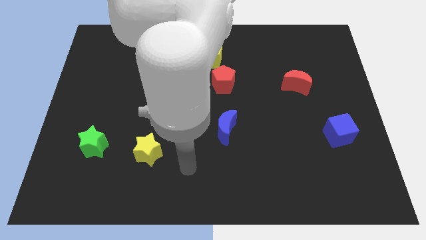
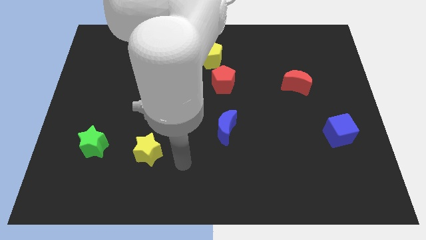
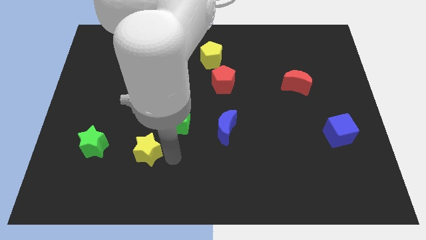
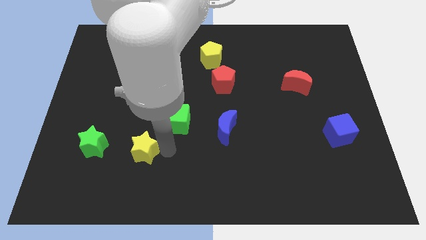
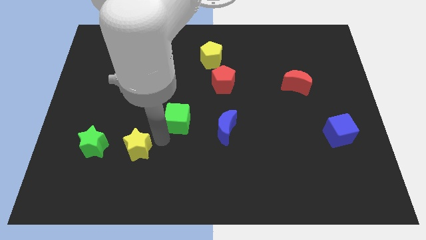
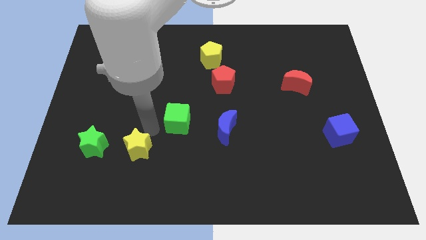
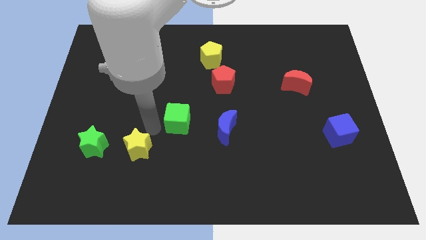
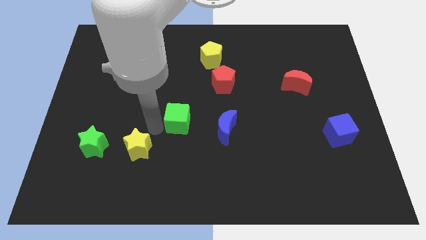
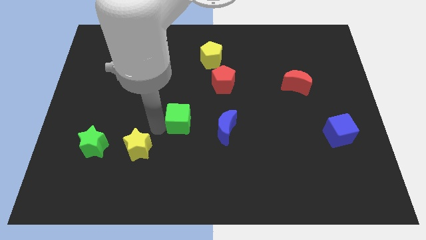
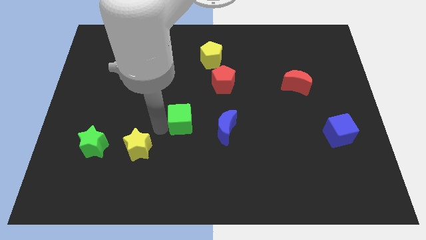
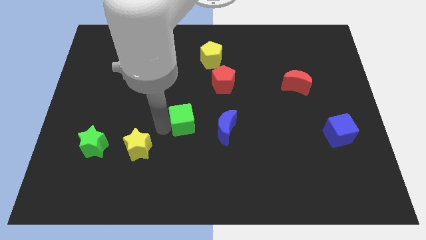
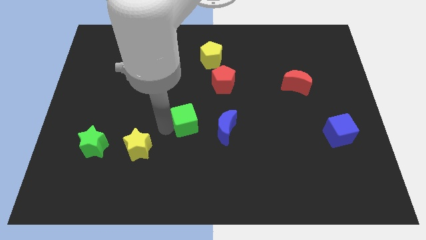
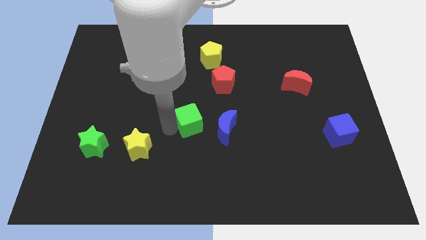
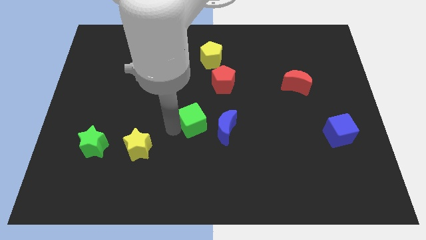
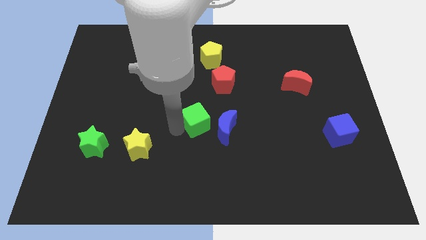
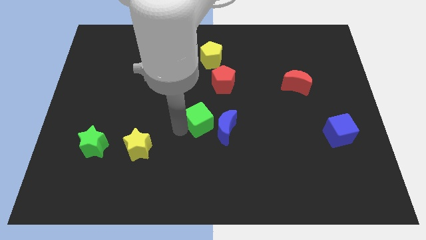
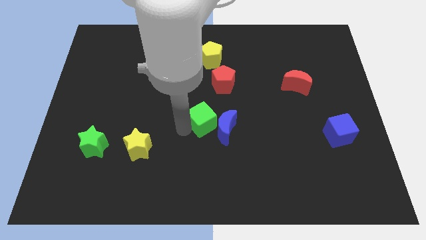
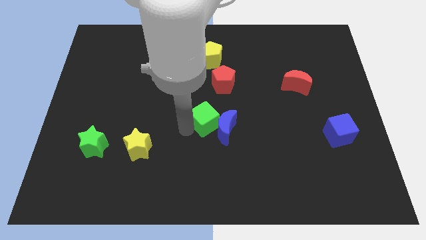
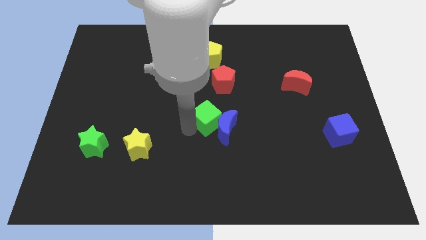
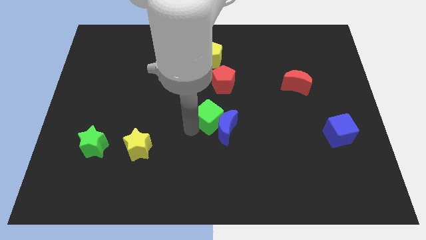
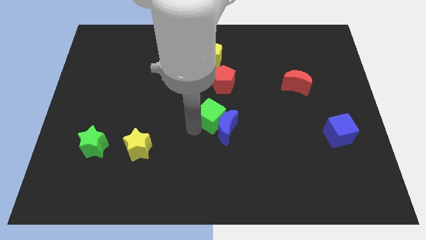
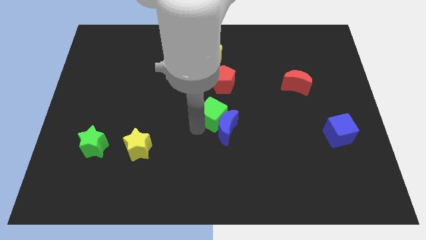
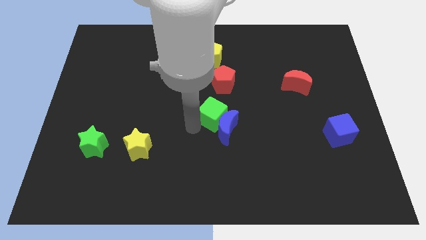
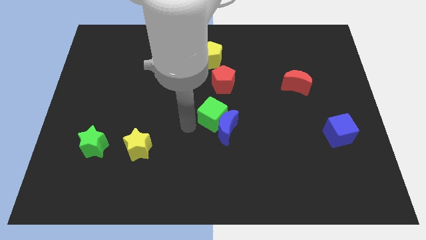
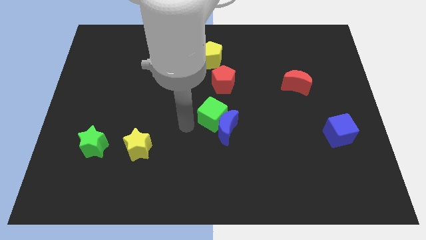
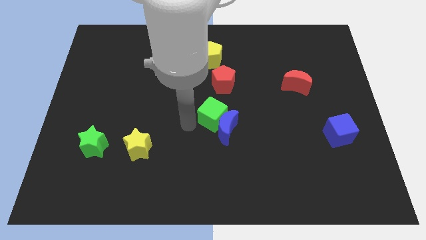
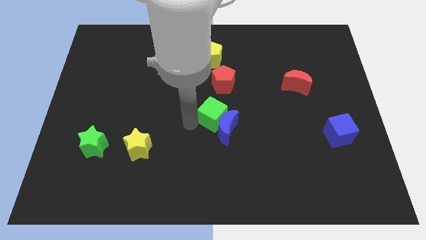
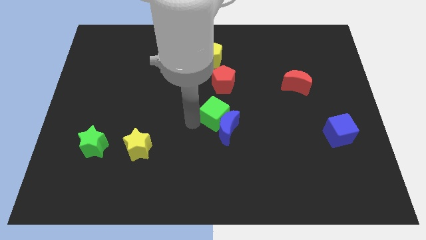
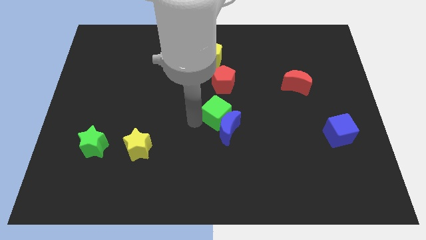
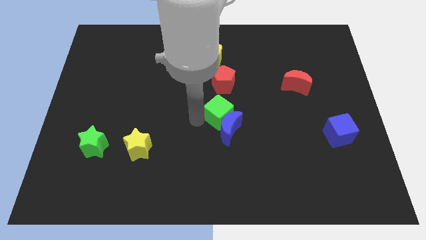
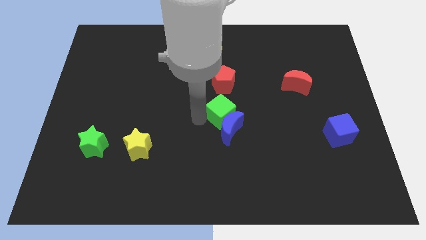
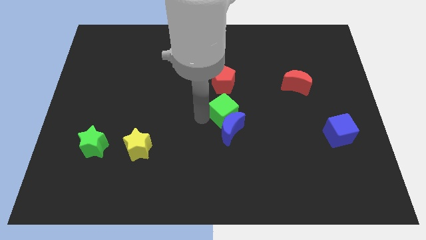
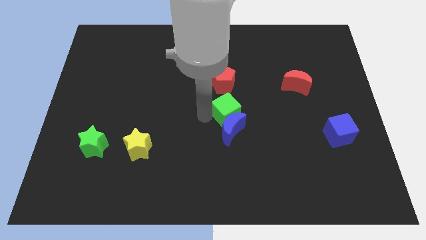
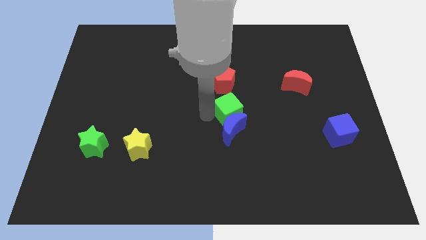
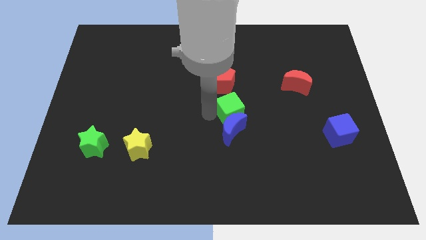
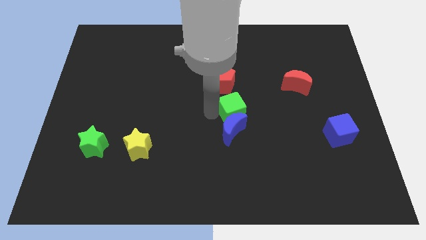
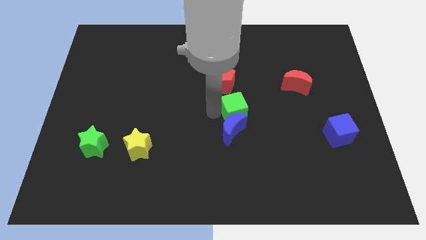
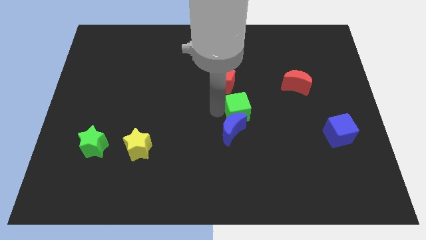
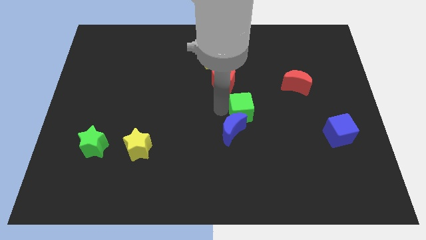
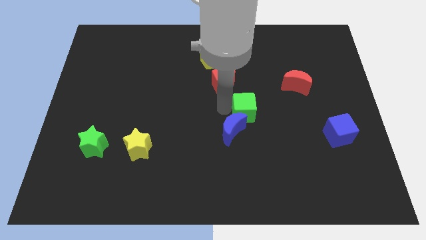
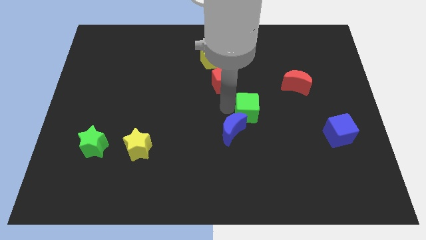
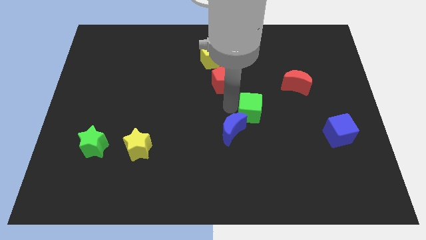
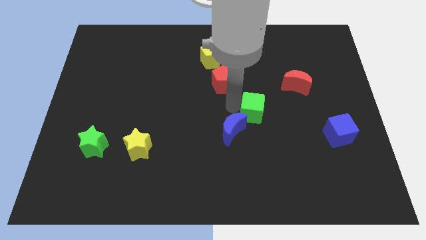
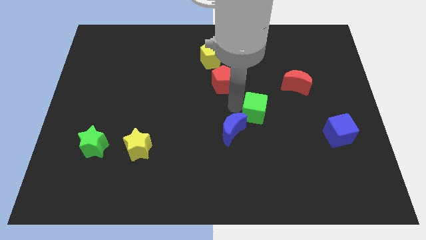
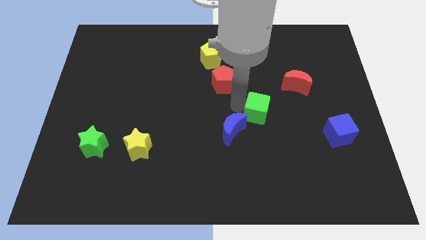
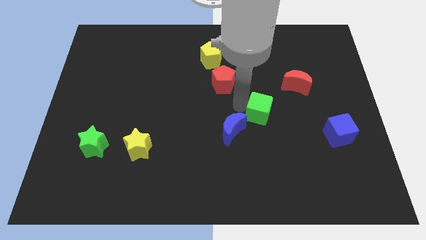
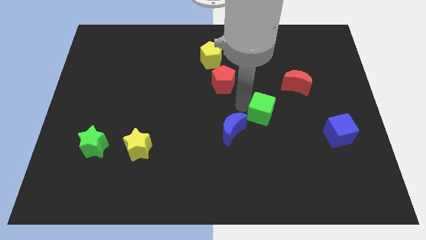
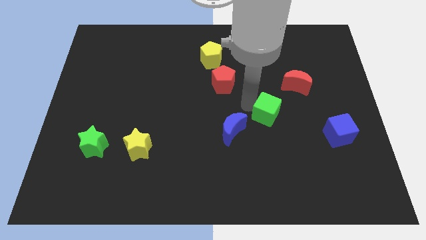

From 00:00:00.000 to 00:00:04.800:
push the green cube right

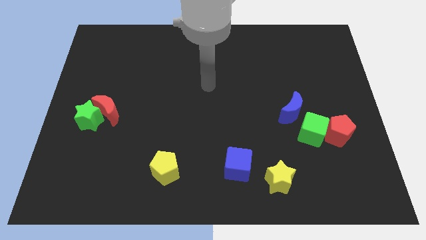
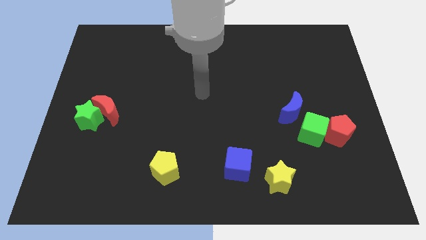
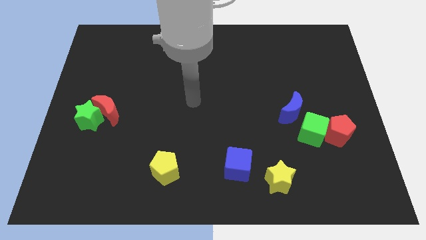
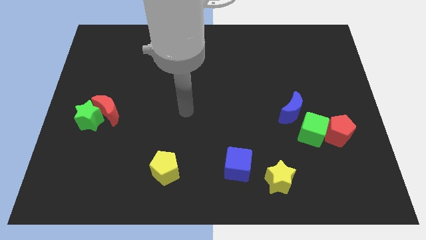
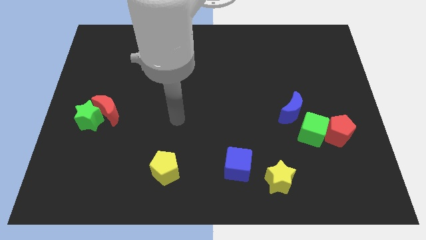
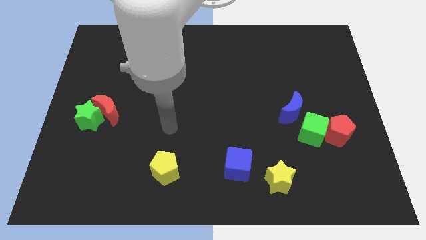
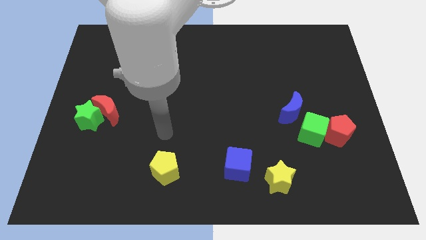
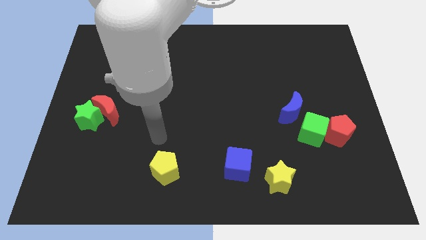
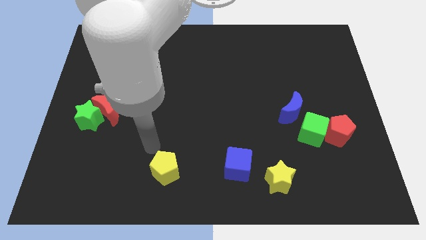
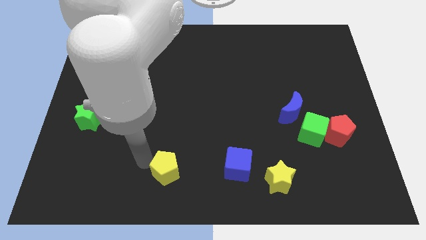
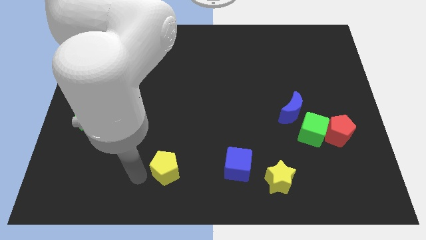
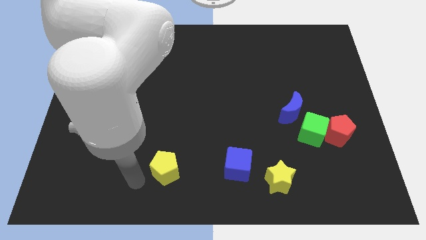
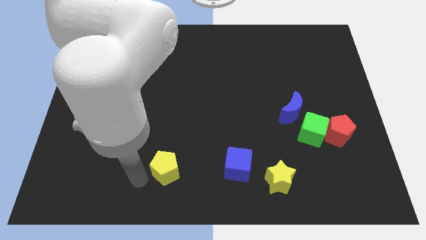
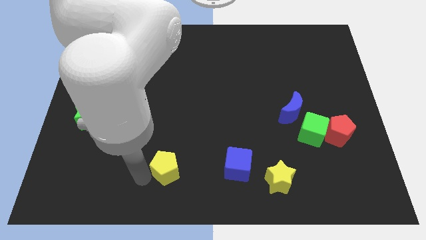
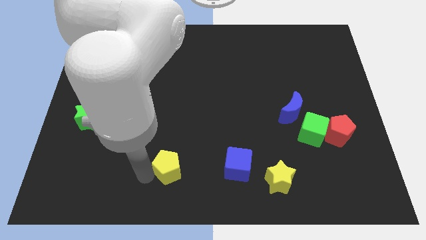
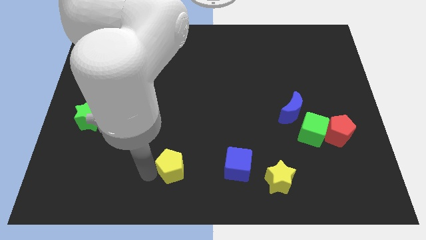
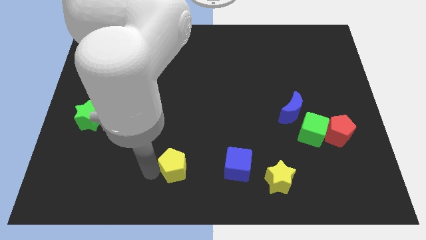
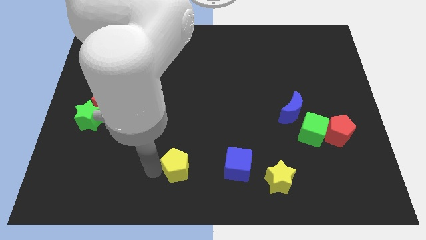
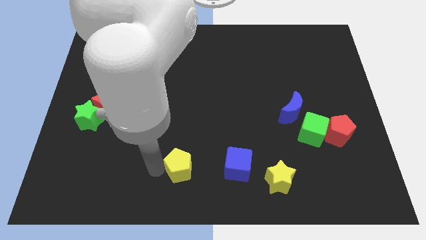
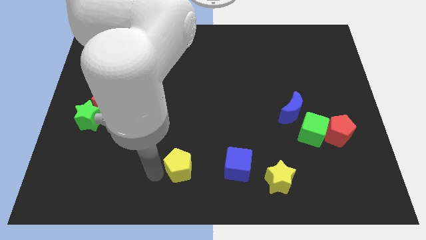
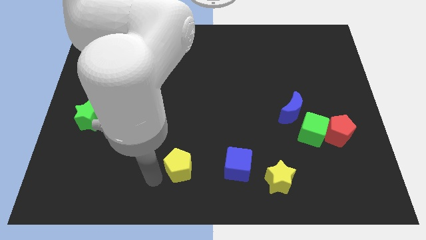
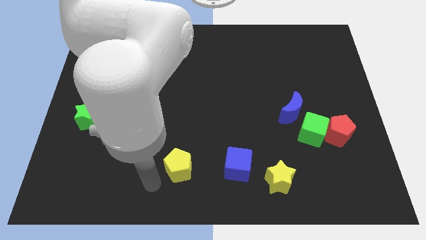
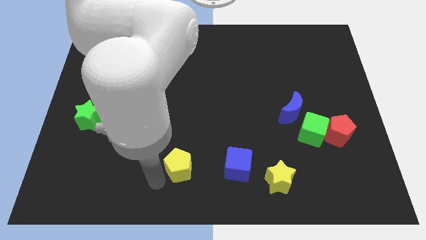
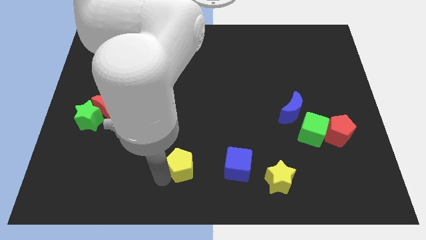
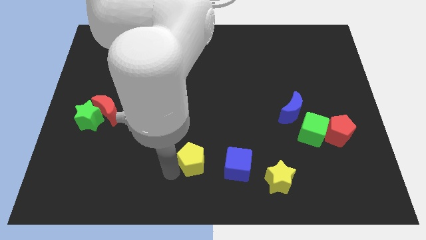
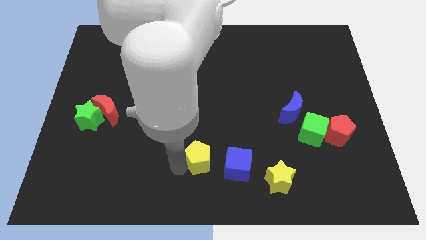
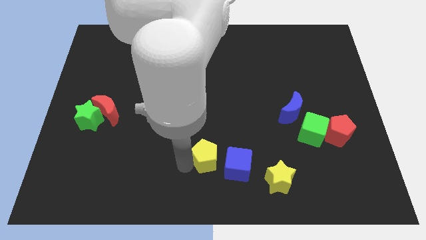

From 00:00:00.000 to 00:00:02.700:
push the yellow pentagon a little right

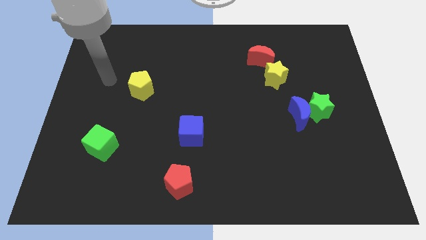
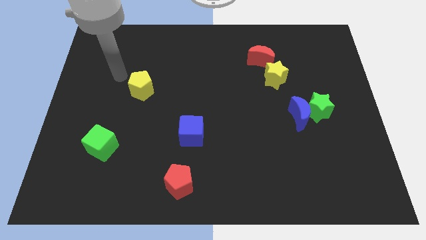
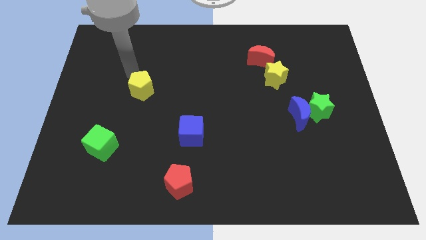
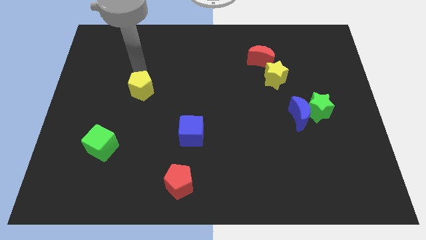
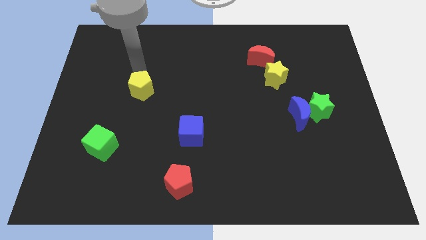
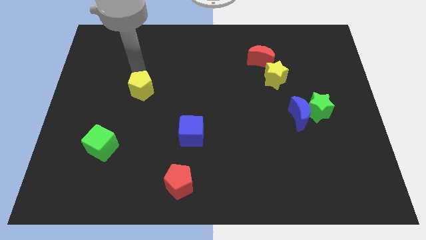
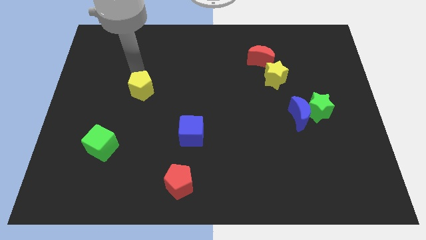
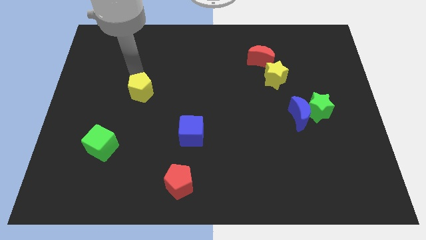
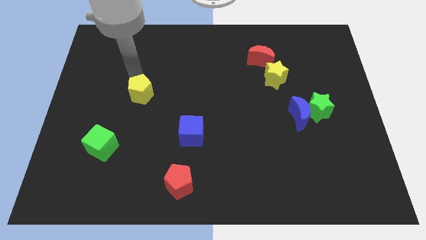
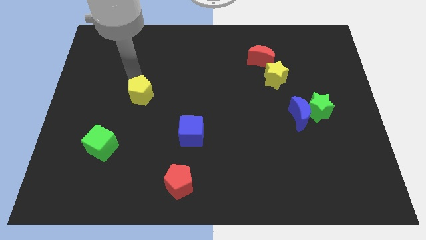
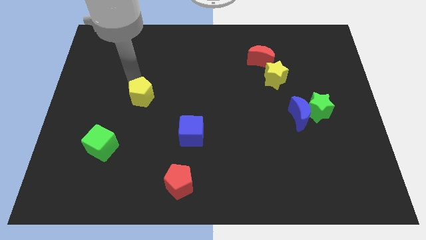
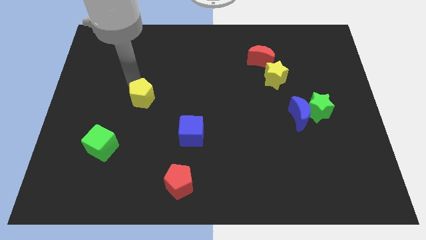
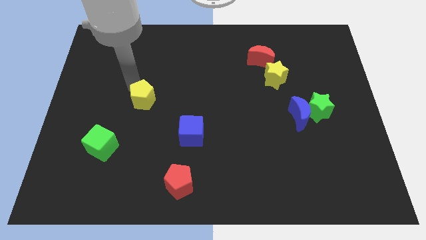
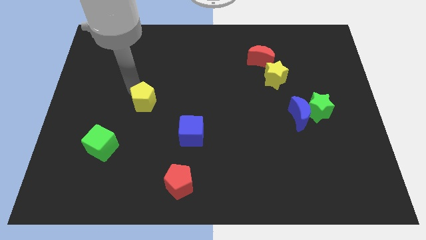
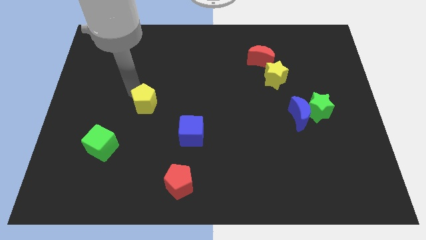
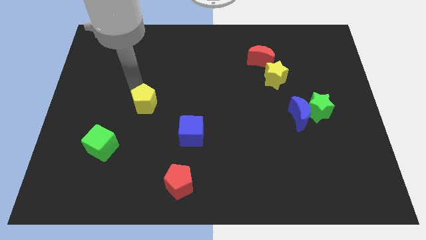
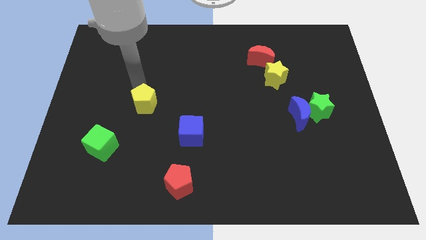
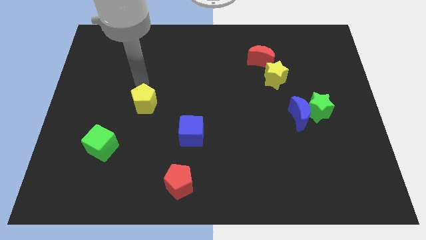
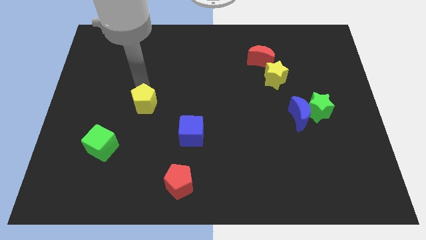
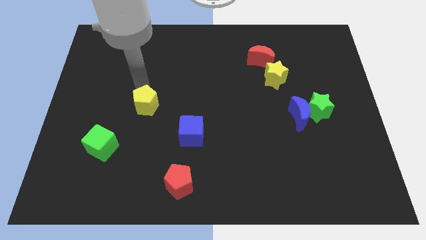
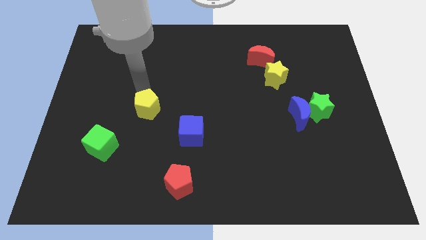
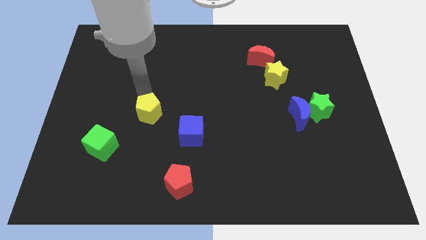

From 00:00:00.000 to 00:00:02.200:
move the yellow pentagon a little downwards
